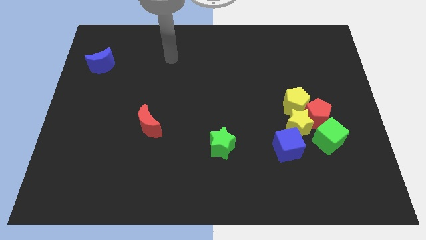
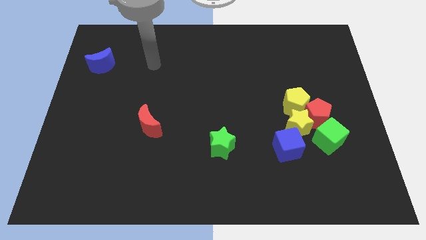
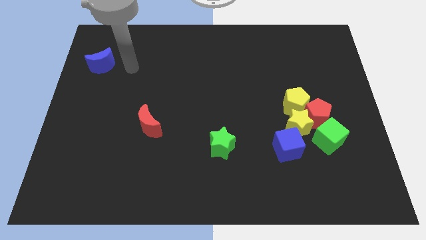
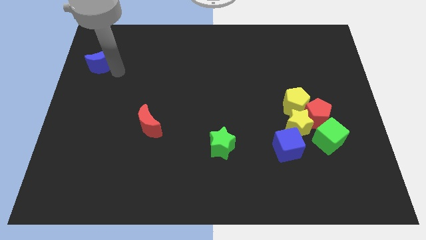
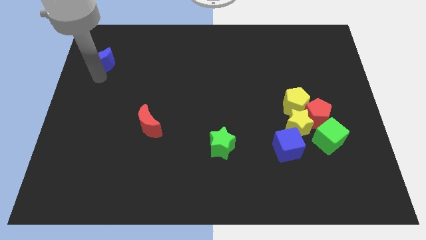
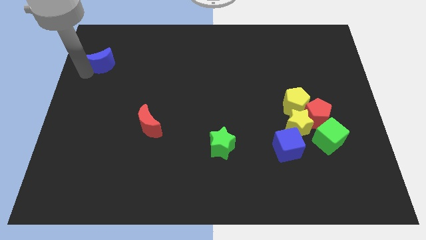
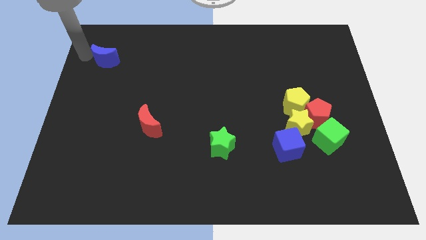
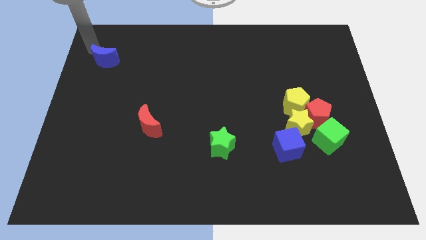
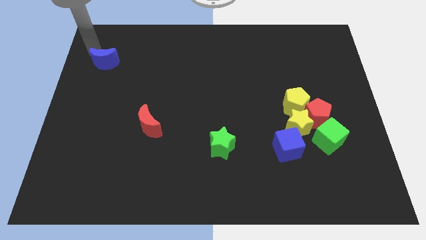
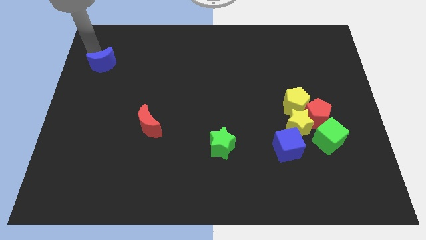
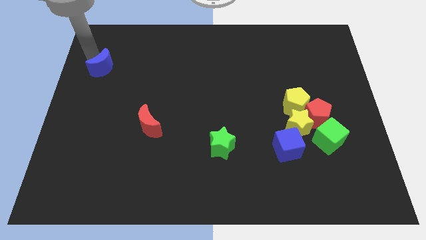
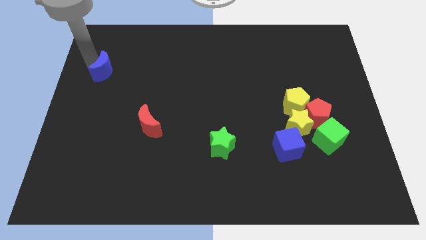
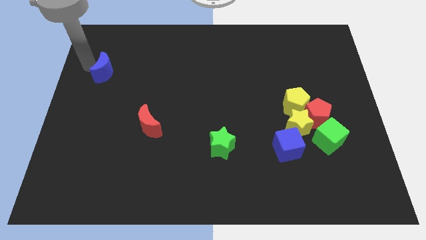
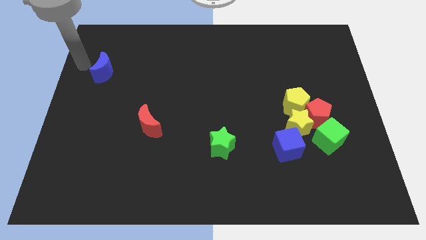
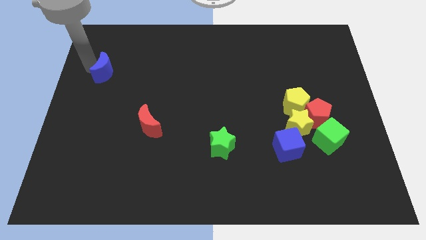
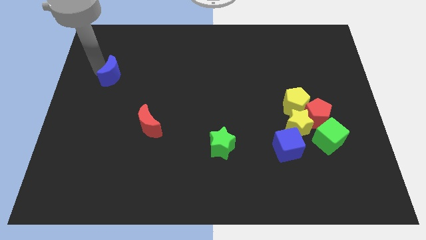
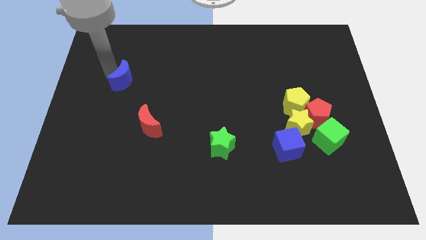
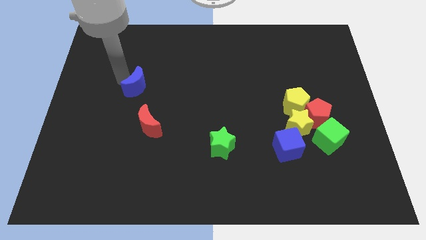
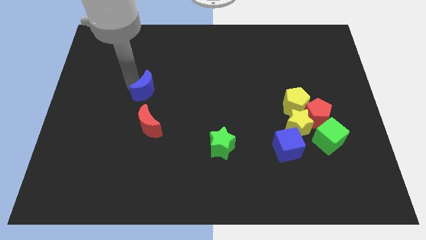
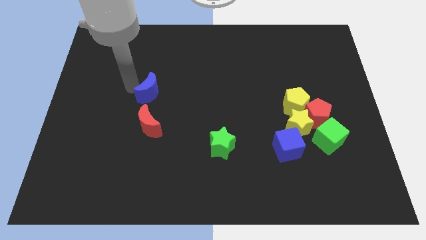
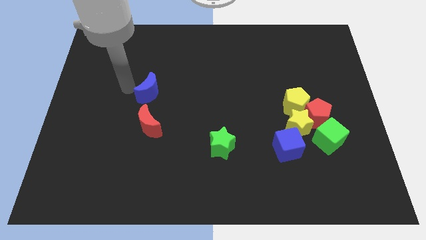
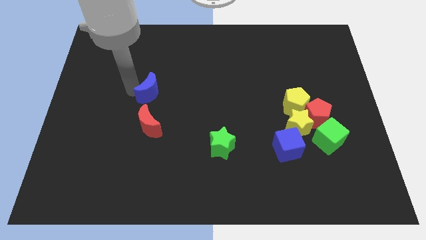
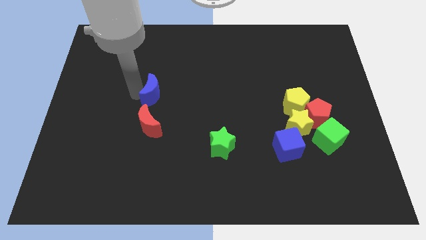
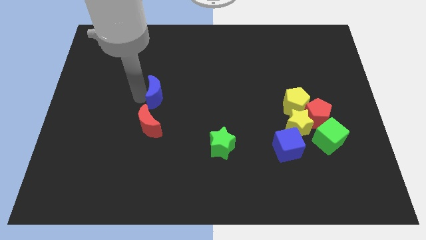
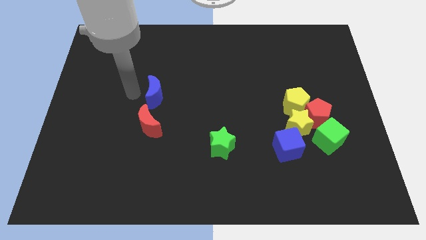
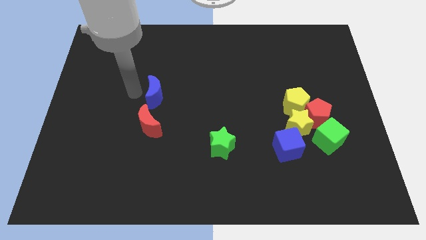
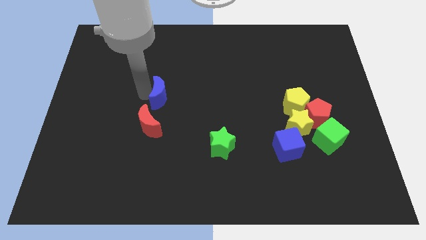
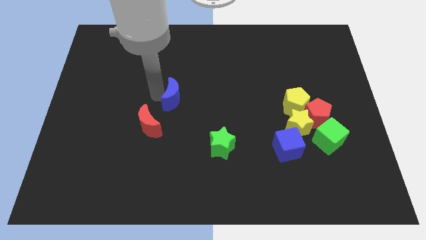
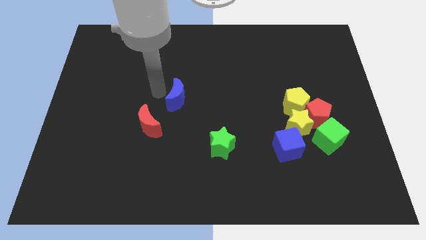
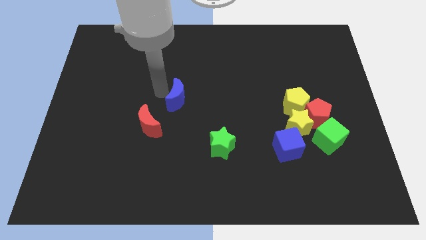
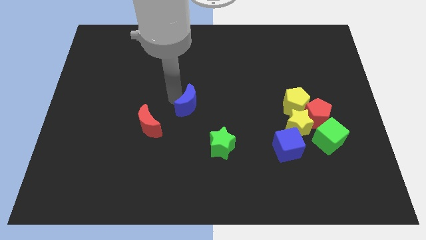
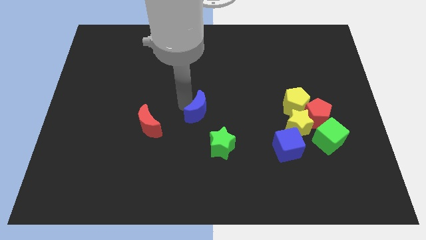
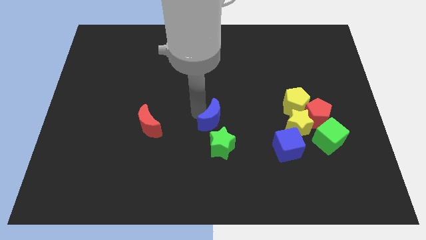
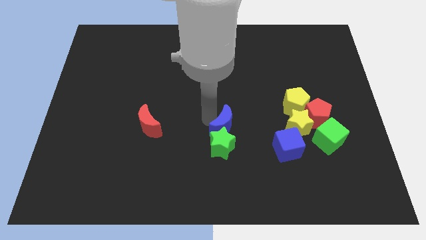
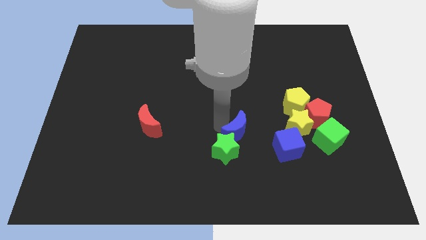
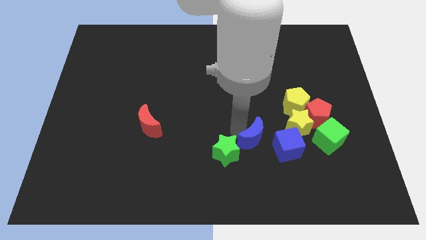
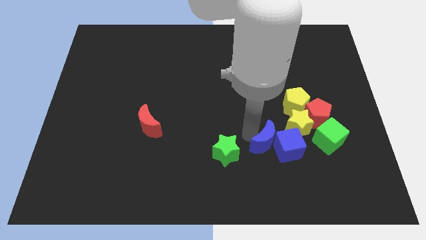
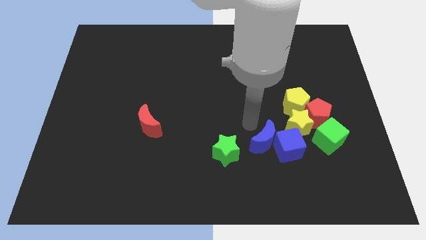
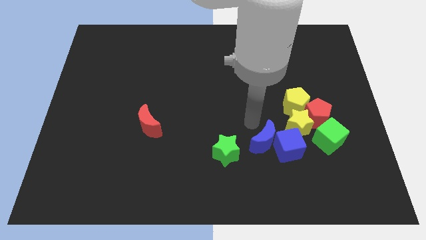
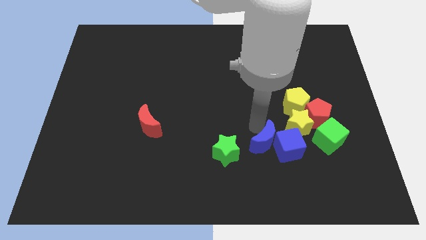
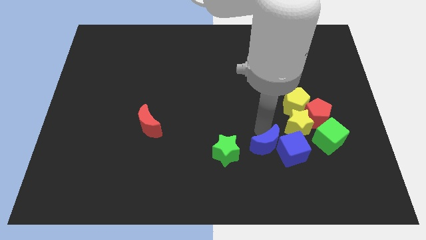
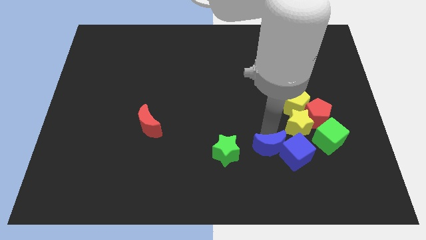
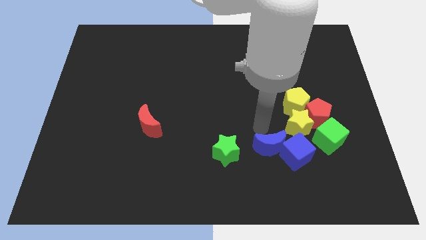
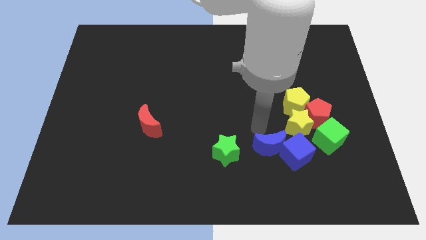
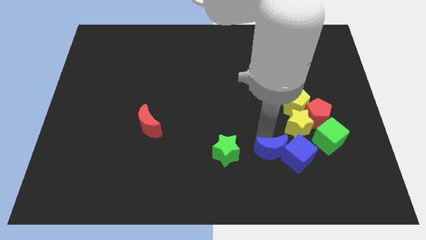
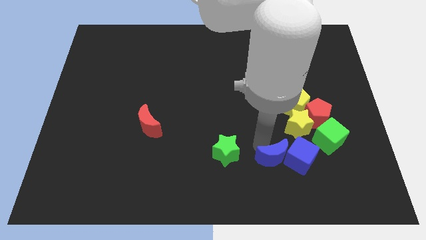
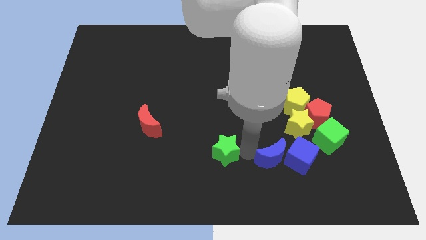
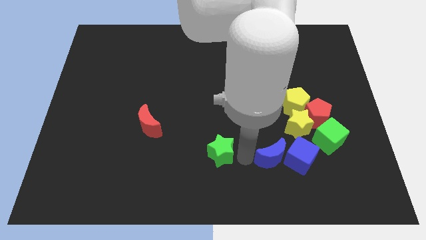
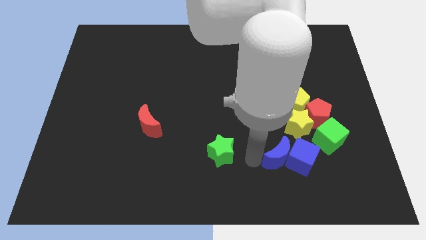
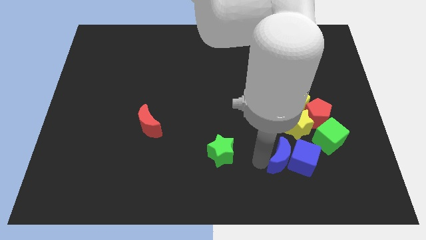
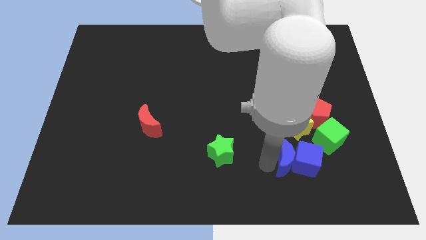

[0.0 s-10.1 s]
slide the blue moon to the bottom left side of the green cube

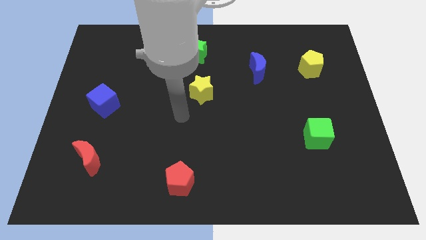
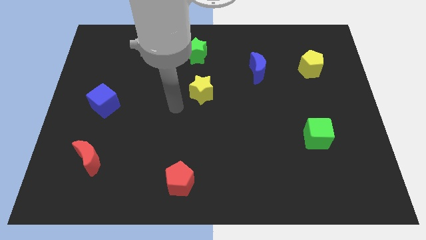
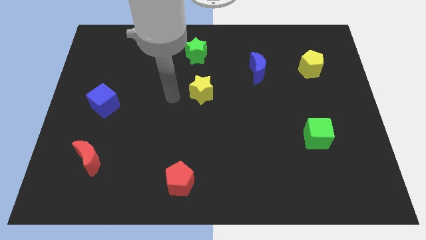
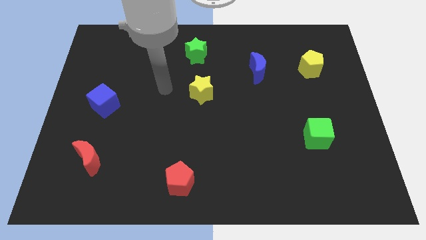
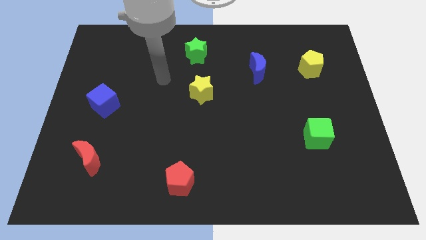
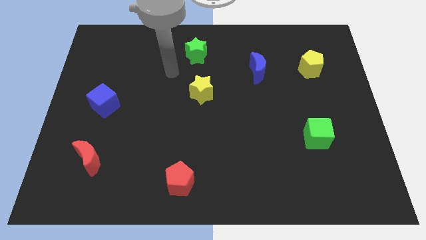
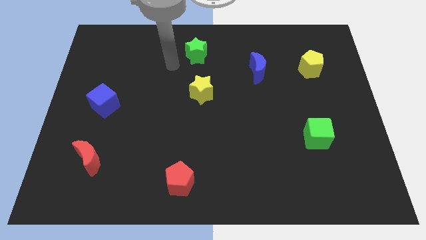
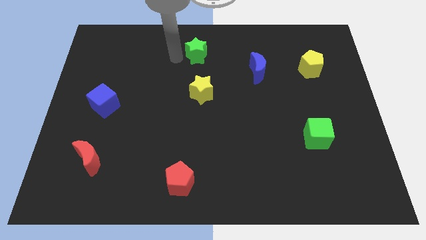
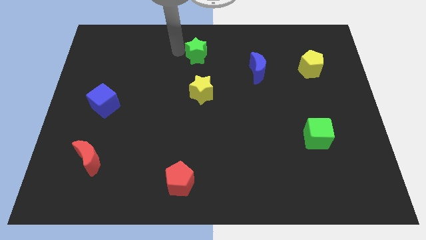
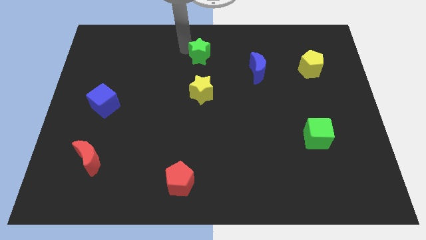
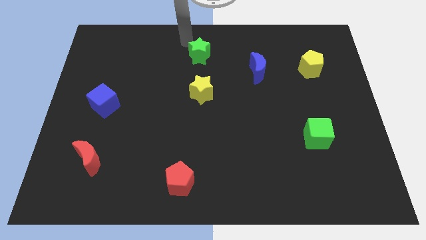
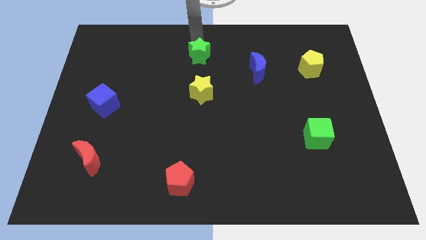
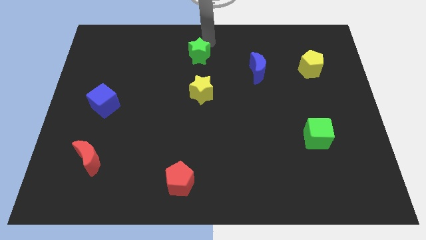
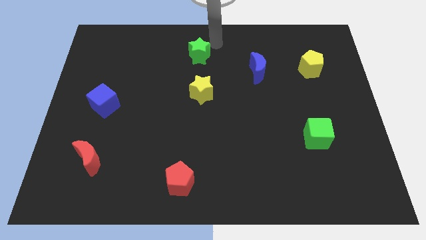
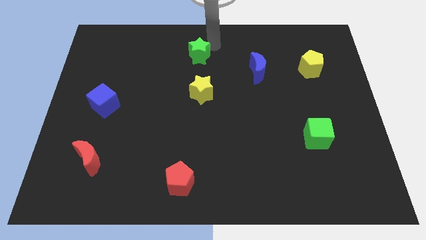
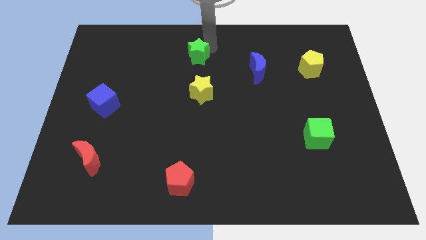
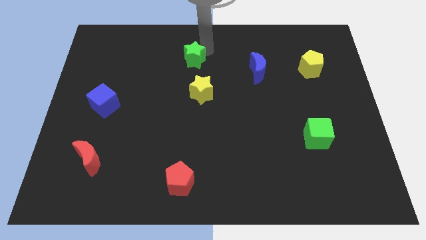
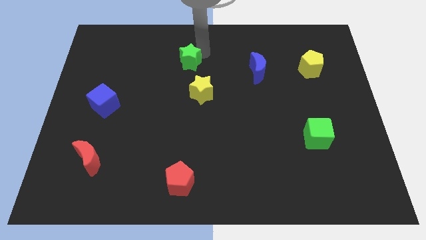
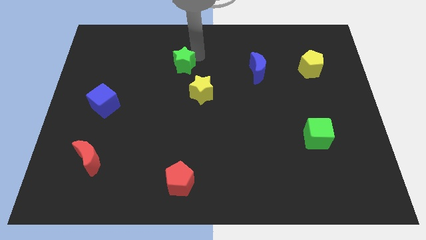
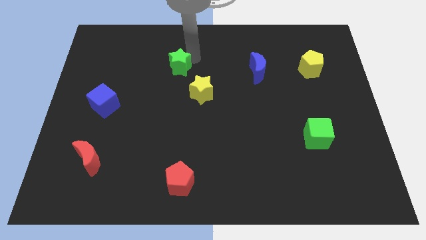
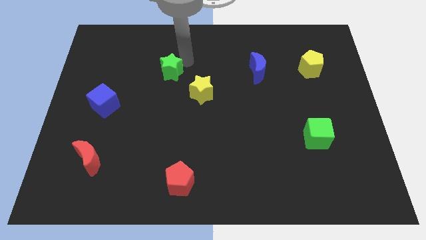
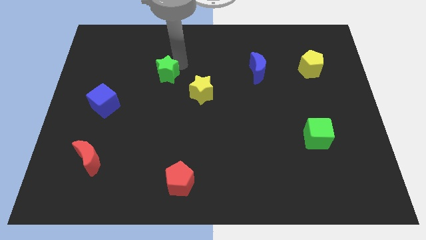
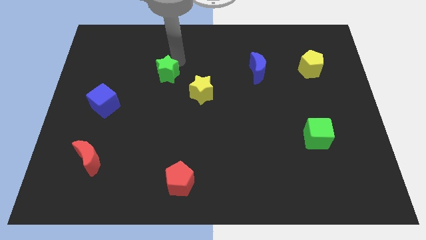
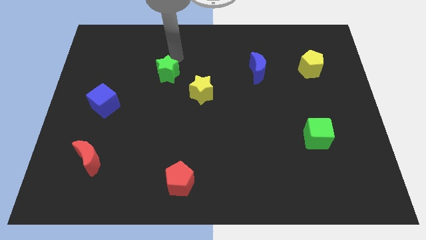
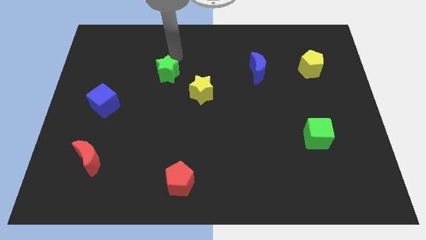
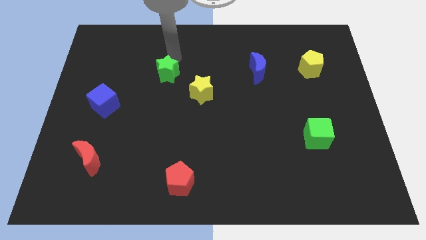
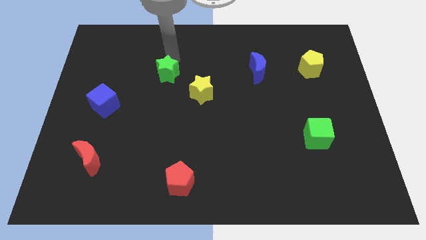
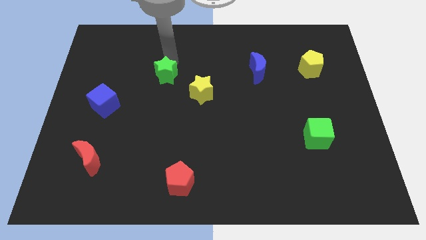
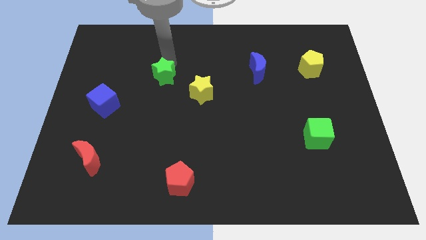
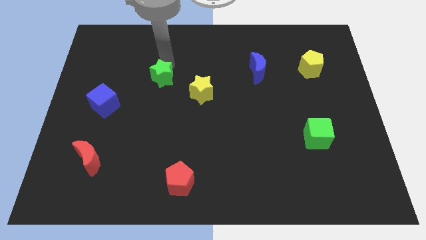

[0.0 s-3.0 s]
slide the green star just left of the yellow star
